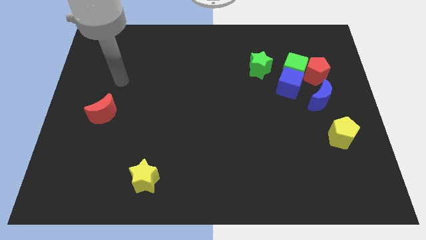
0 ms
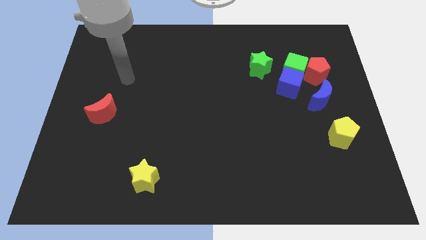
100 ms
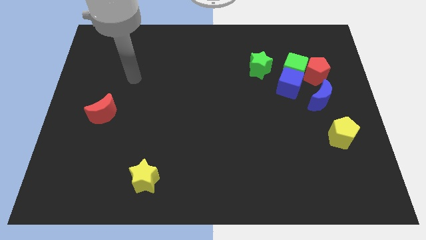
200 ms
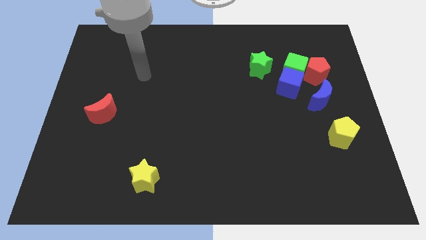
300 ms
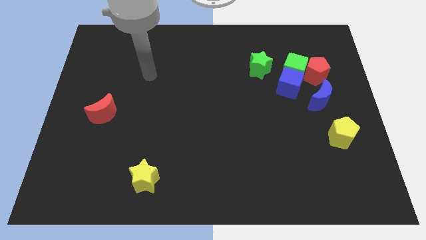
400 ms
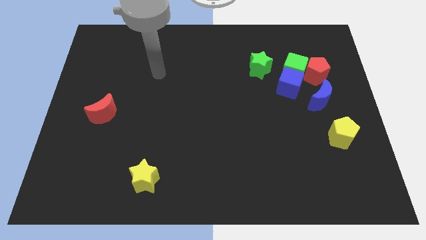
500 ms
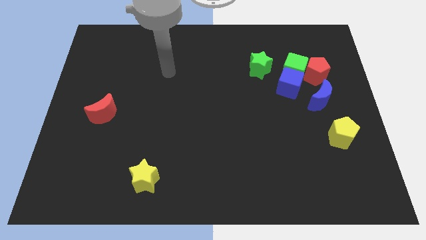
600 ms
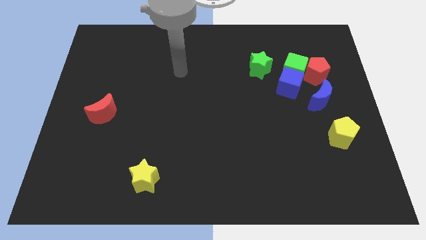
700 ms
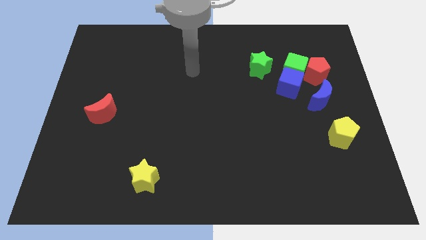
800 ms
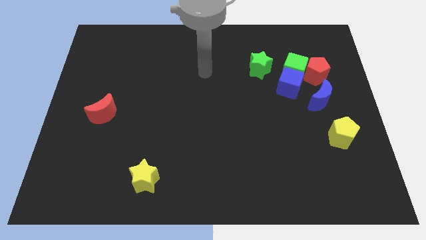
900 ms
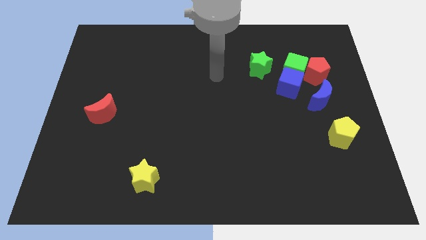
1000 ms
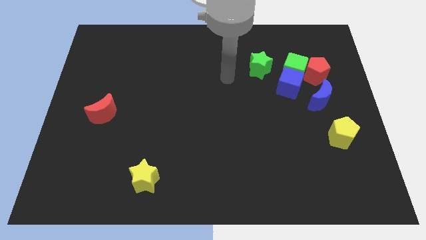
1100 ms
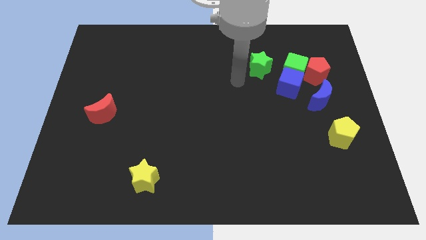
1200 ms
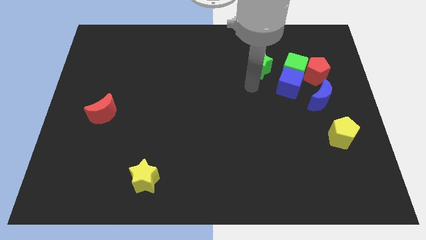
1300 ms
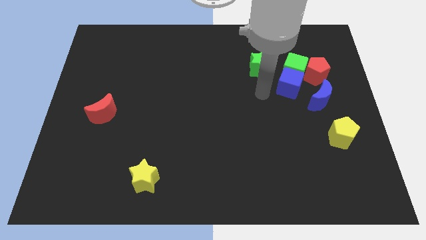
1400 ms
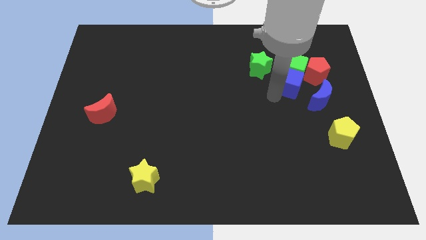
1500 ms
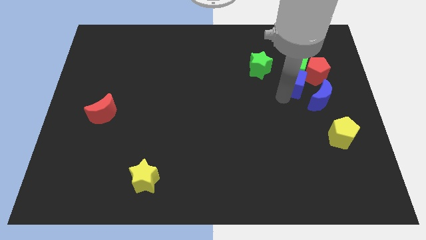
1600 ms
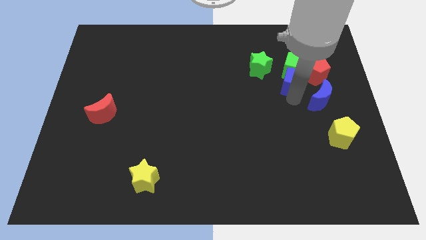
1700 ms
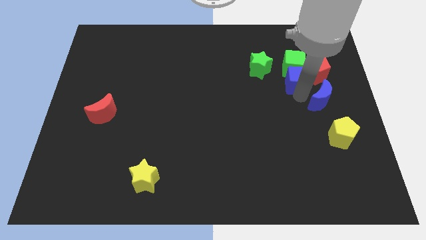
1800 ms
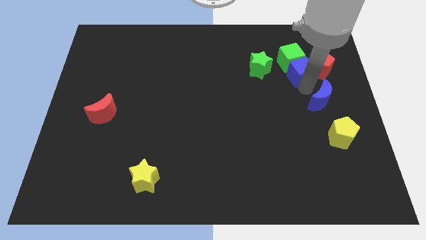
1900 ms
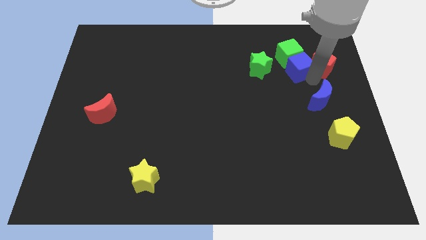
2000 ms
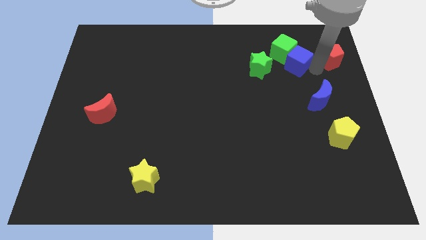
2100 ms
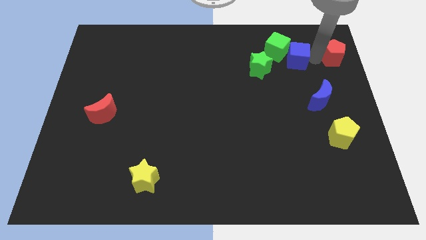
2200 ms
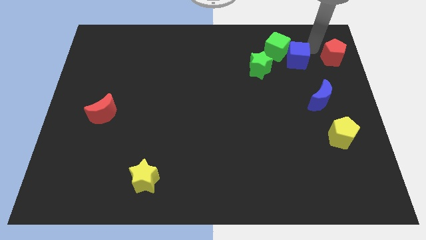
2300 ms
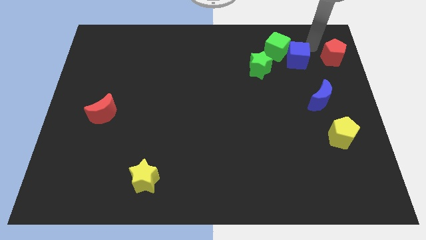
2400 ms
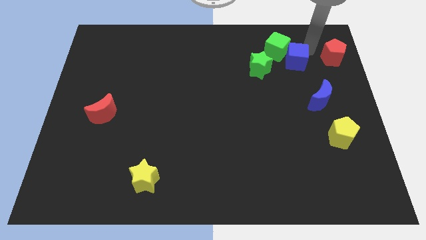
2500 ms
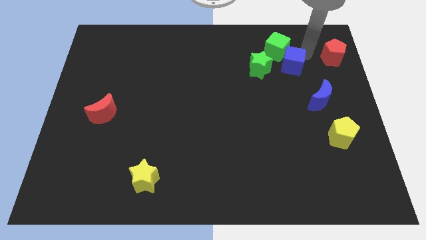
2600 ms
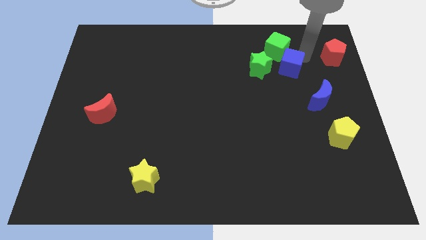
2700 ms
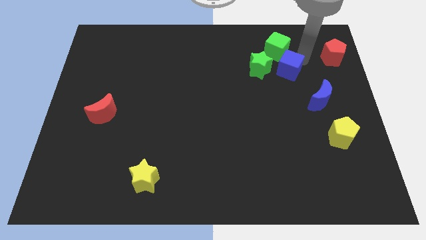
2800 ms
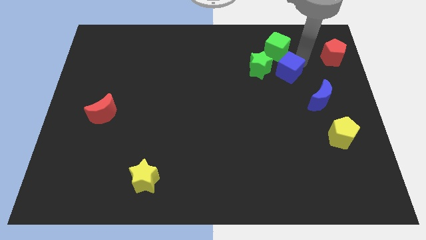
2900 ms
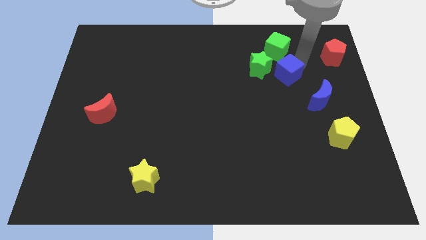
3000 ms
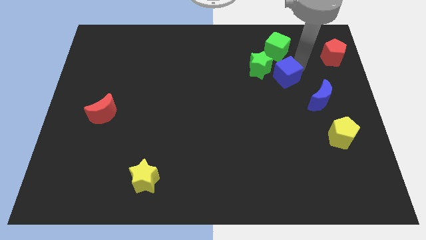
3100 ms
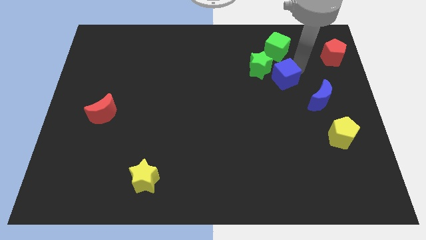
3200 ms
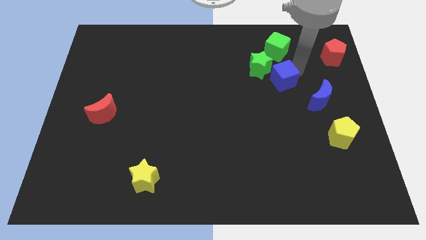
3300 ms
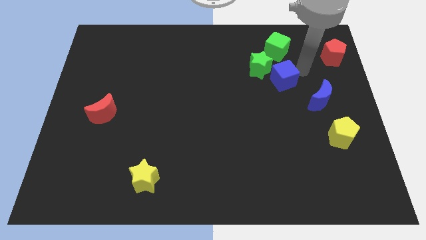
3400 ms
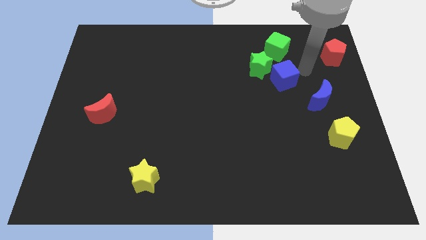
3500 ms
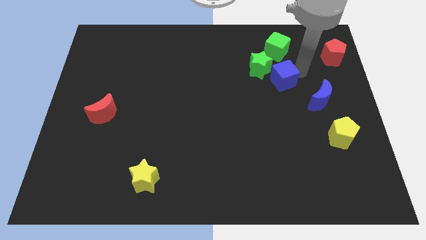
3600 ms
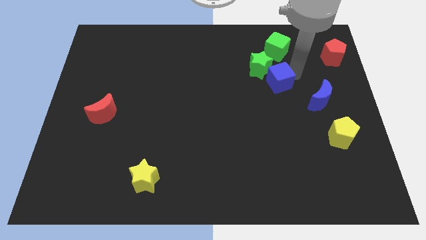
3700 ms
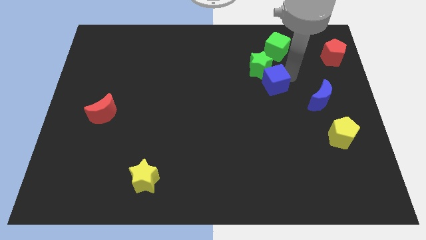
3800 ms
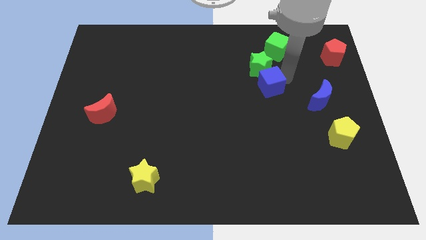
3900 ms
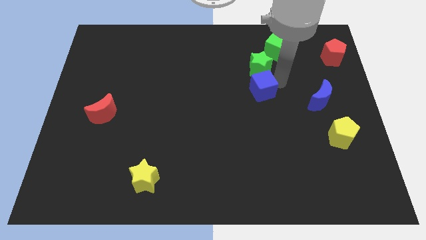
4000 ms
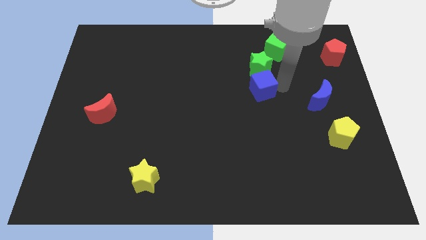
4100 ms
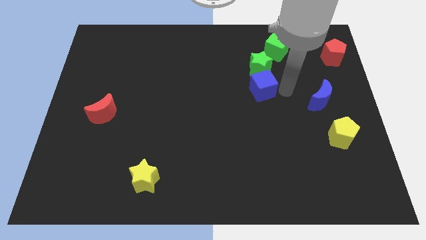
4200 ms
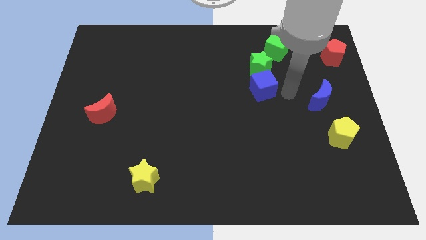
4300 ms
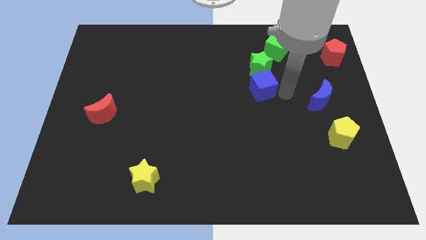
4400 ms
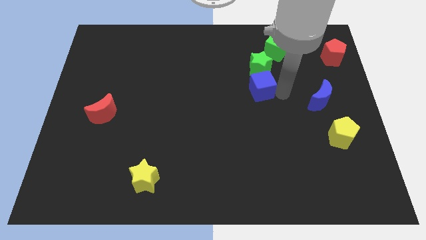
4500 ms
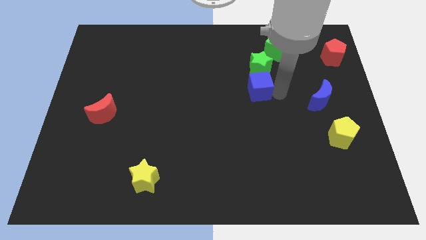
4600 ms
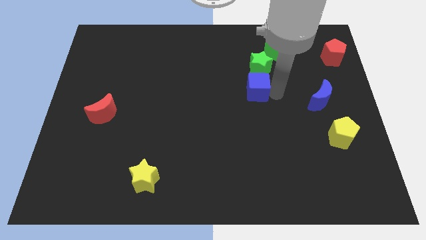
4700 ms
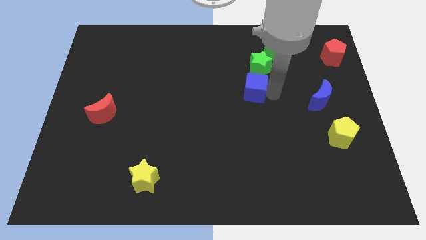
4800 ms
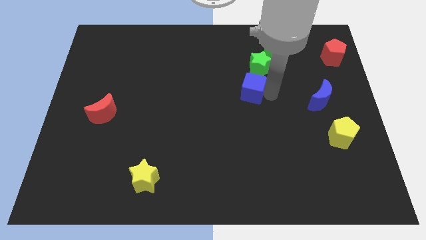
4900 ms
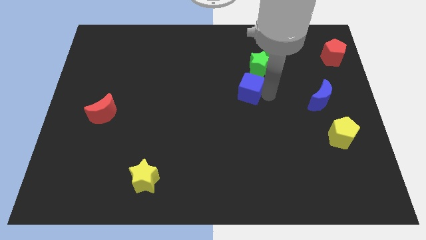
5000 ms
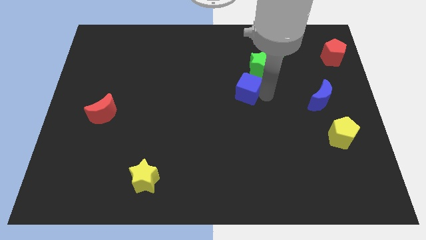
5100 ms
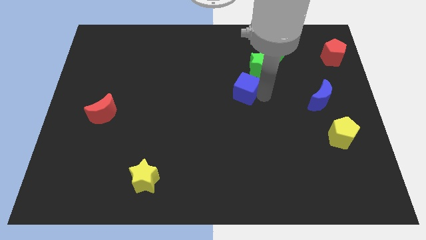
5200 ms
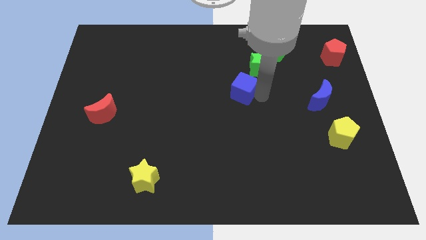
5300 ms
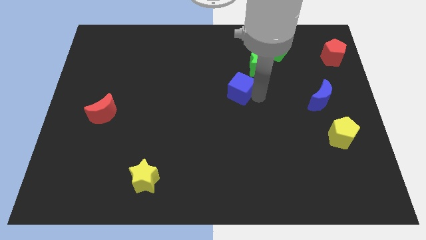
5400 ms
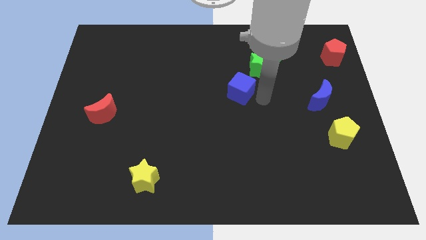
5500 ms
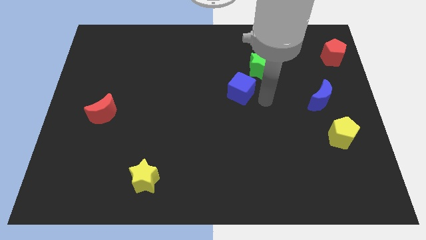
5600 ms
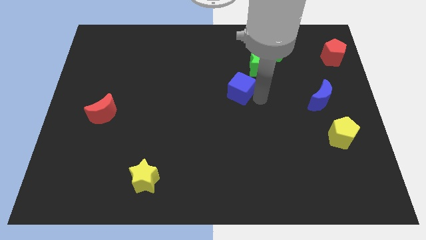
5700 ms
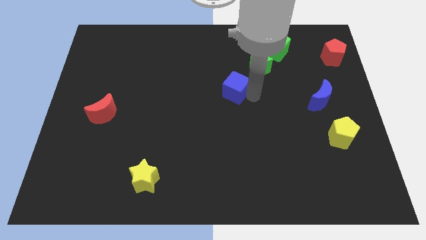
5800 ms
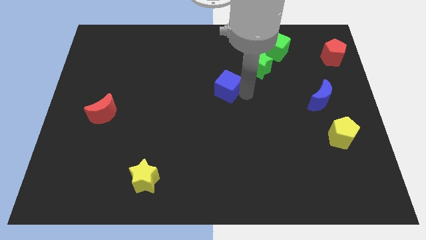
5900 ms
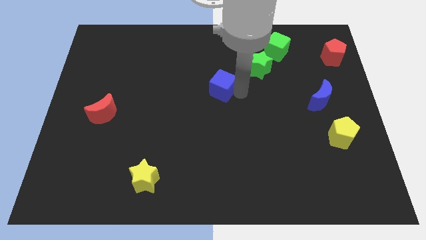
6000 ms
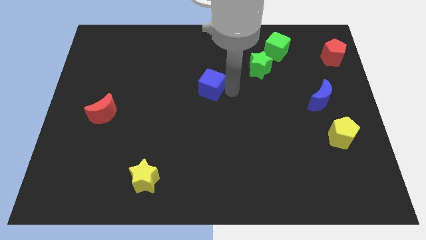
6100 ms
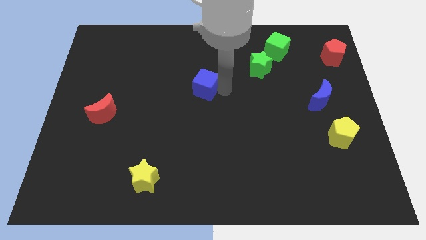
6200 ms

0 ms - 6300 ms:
slide the blue cube to the left

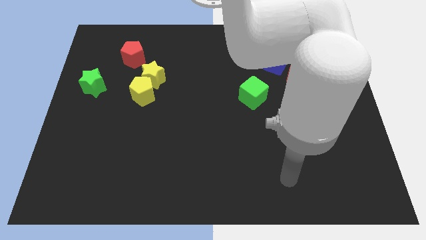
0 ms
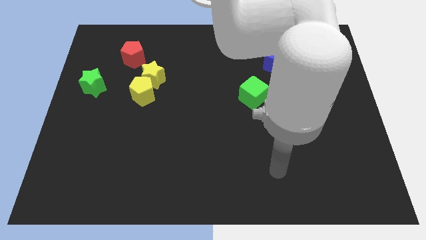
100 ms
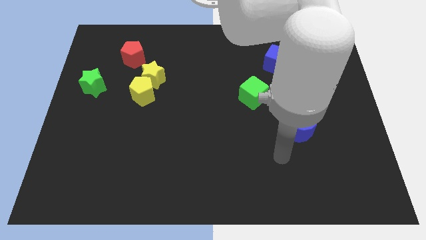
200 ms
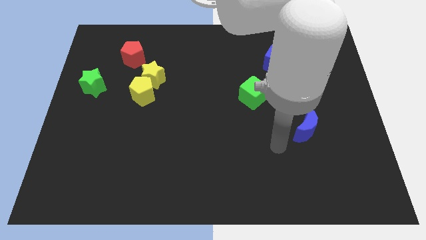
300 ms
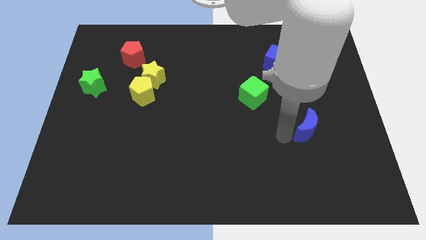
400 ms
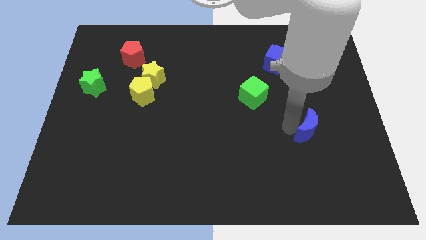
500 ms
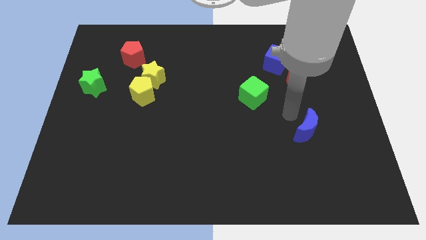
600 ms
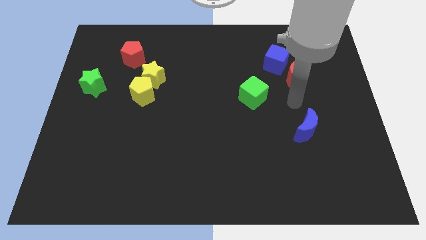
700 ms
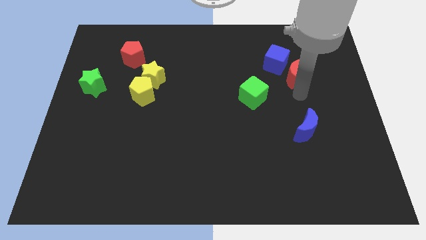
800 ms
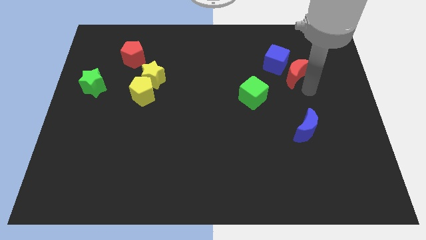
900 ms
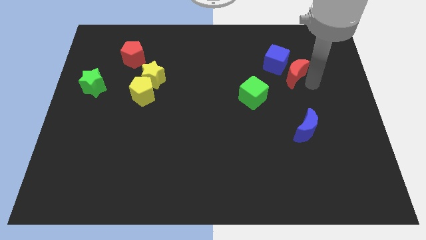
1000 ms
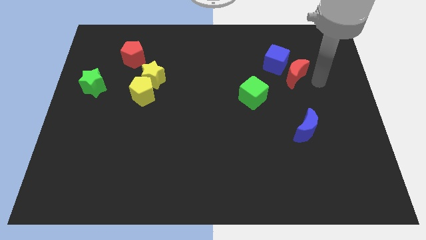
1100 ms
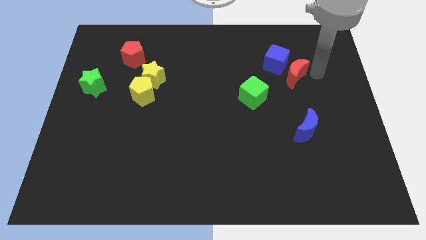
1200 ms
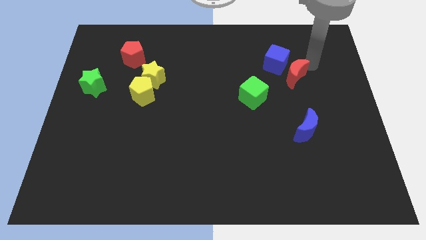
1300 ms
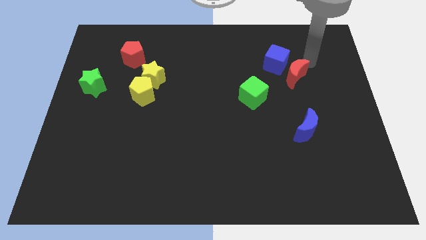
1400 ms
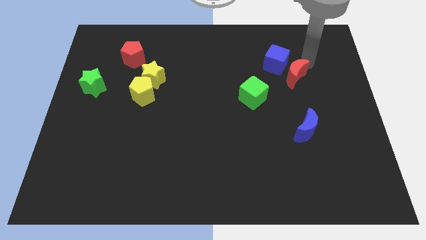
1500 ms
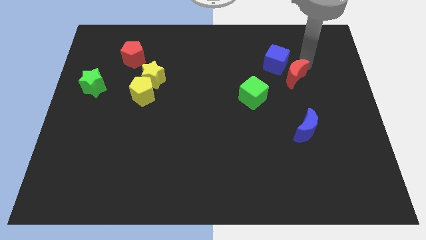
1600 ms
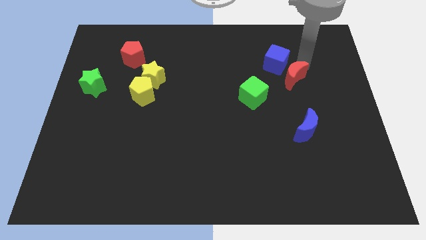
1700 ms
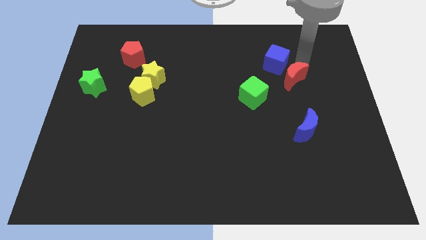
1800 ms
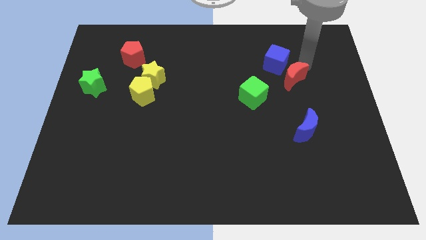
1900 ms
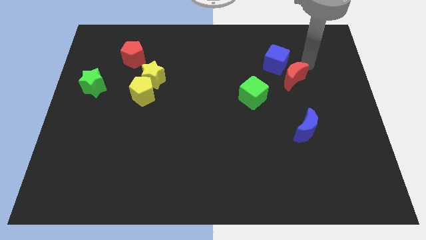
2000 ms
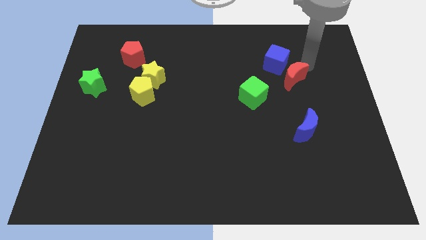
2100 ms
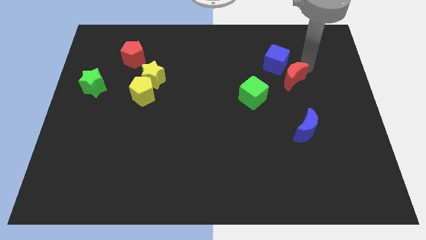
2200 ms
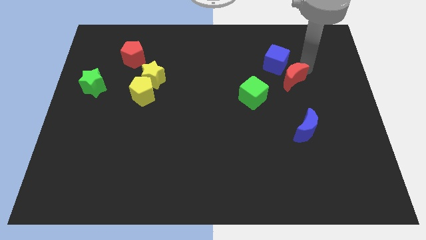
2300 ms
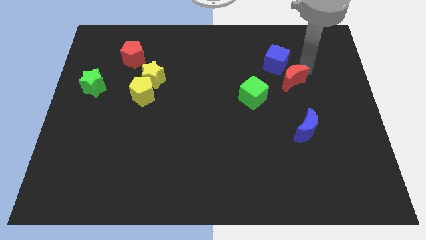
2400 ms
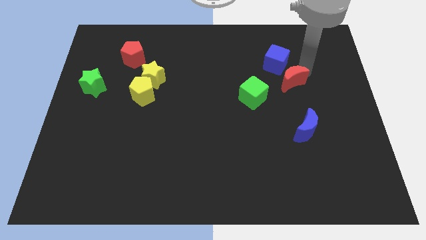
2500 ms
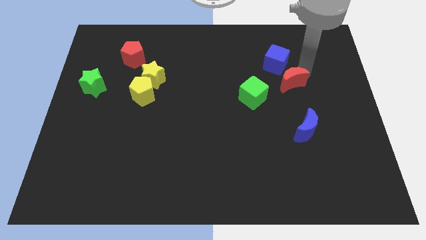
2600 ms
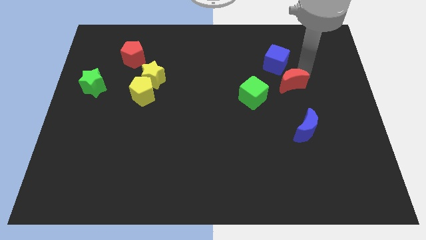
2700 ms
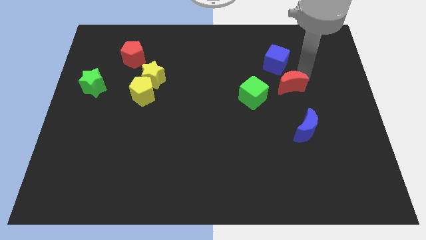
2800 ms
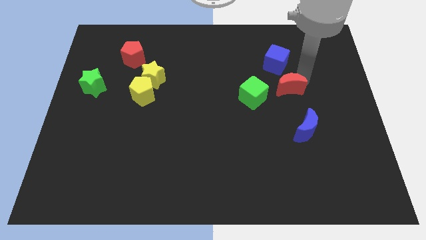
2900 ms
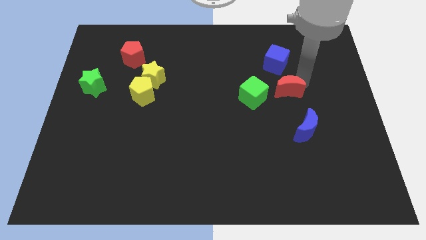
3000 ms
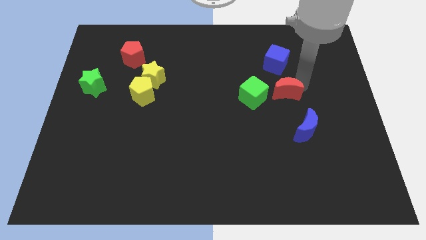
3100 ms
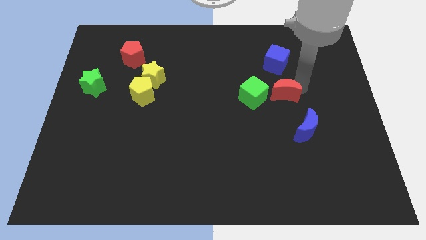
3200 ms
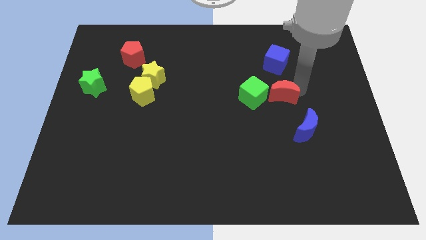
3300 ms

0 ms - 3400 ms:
push the red moon down and left diagonally a bit
